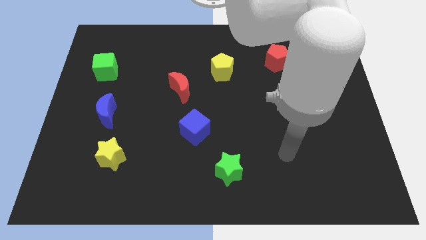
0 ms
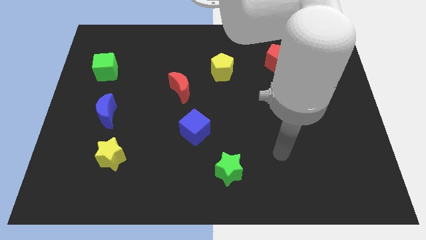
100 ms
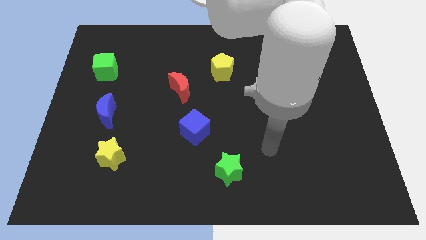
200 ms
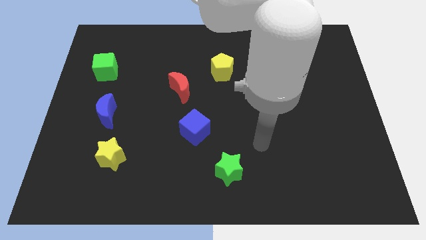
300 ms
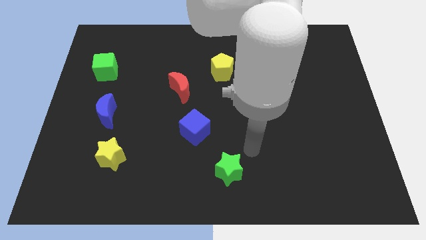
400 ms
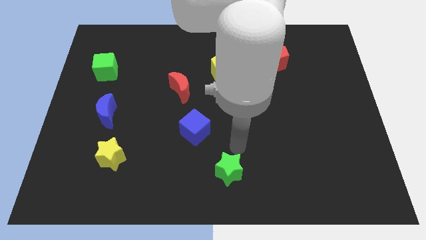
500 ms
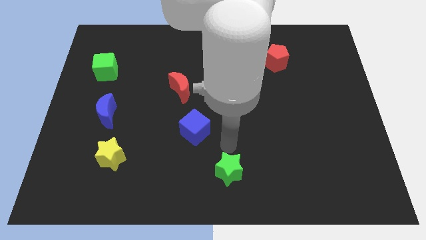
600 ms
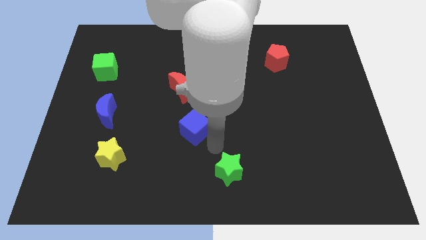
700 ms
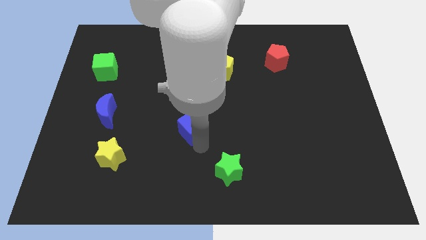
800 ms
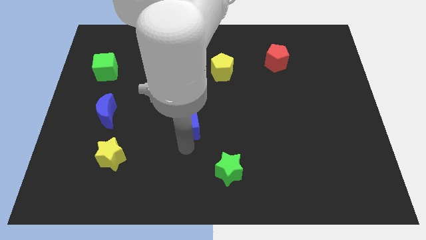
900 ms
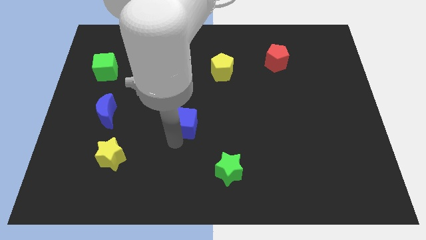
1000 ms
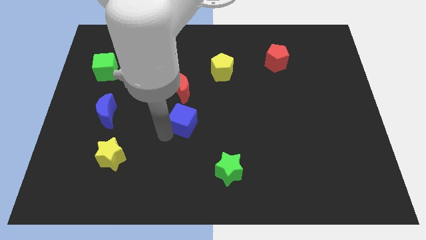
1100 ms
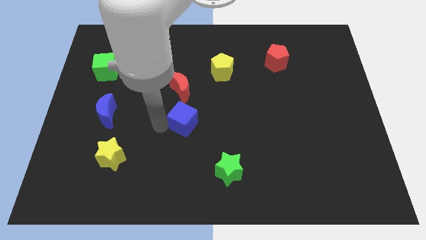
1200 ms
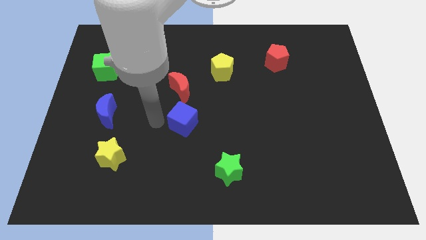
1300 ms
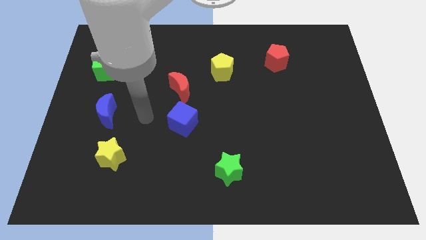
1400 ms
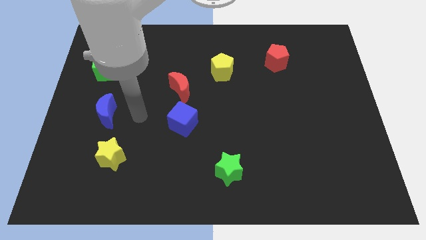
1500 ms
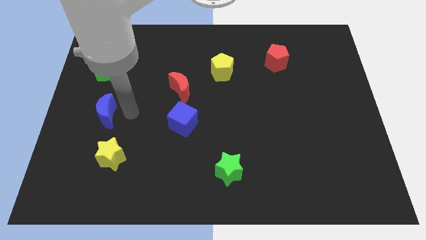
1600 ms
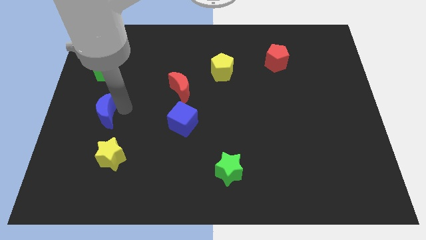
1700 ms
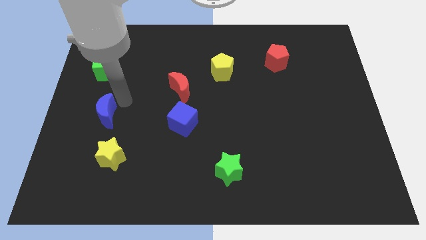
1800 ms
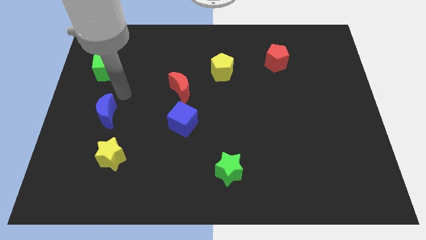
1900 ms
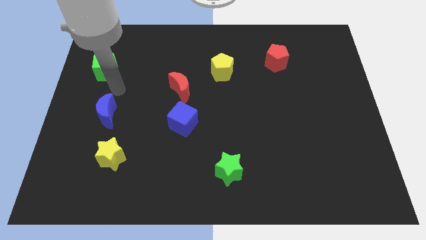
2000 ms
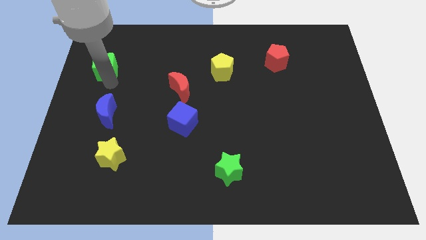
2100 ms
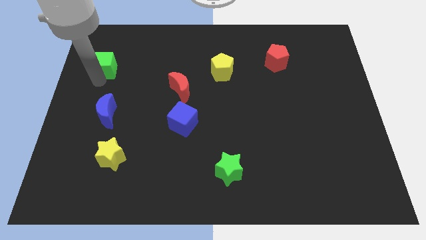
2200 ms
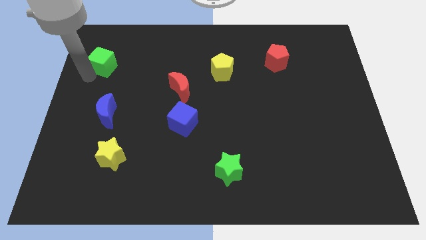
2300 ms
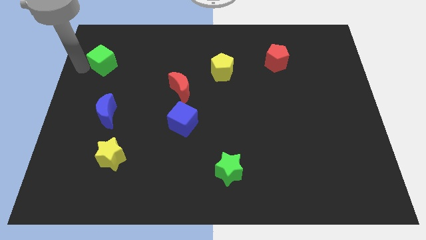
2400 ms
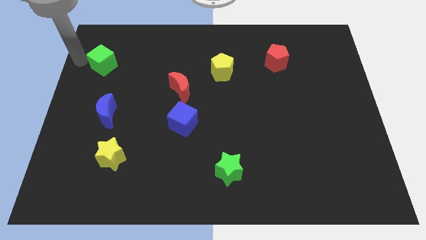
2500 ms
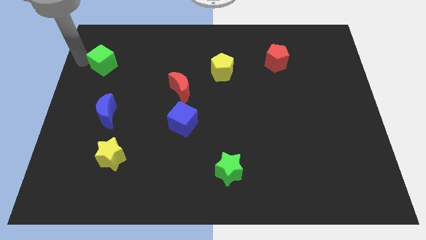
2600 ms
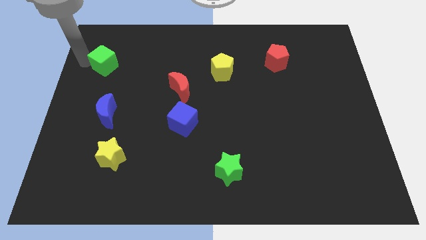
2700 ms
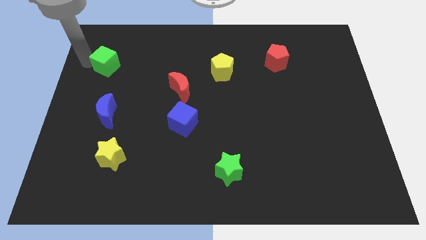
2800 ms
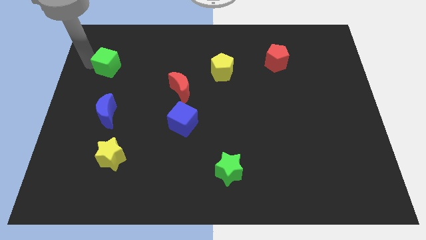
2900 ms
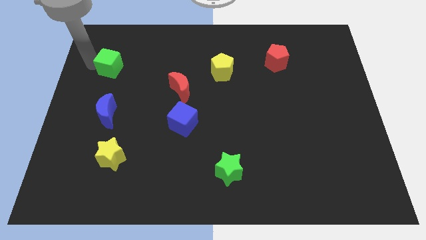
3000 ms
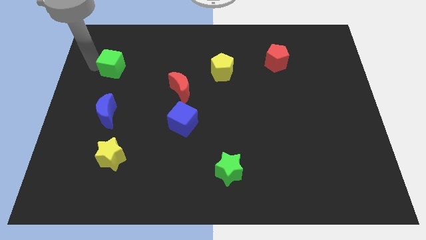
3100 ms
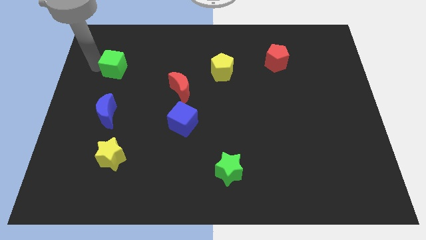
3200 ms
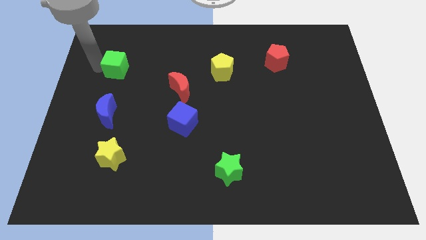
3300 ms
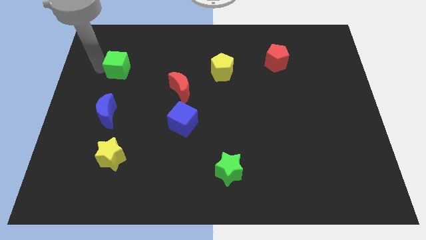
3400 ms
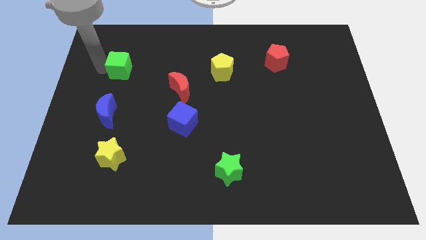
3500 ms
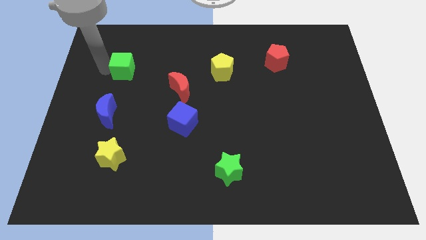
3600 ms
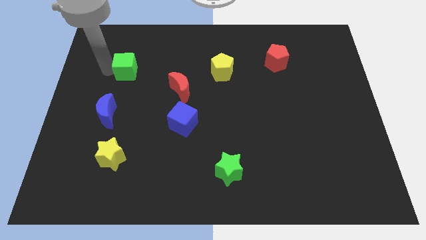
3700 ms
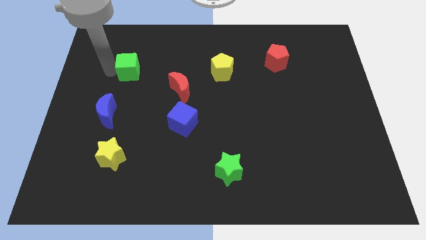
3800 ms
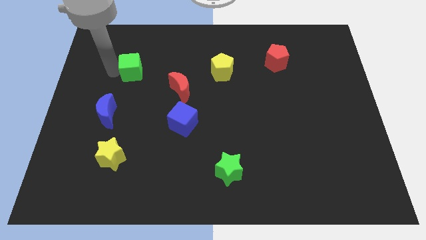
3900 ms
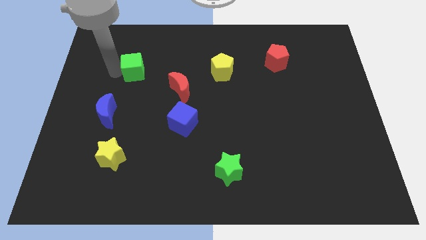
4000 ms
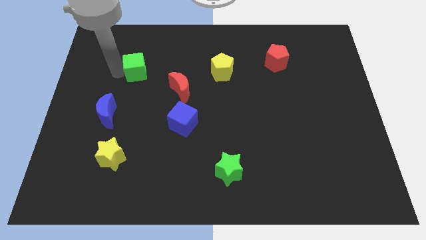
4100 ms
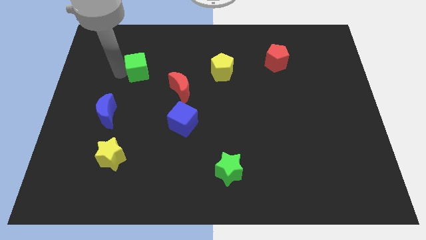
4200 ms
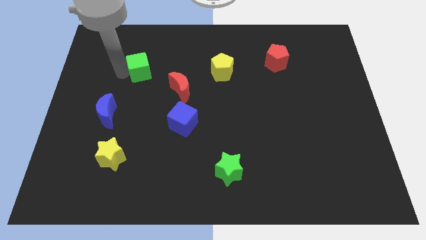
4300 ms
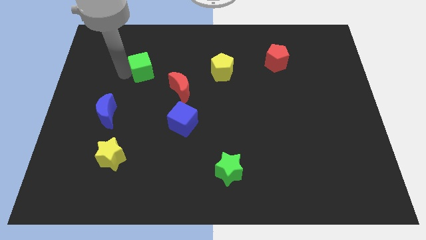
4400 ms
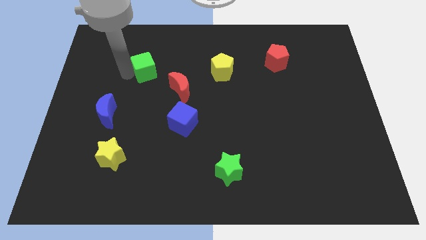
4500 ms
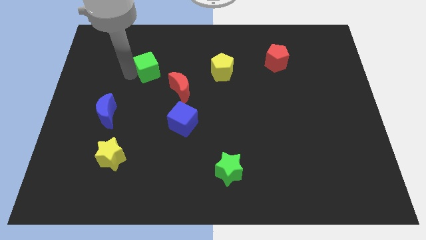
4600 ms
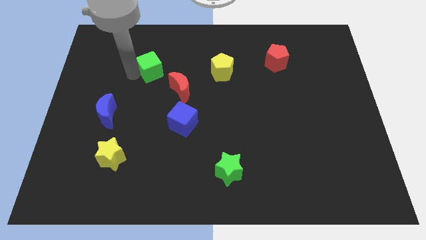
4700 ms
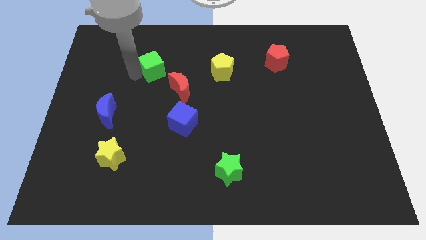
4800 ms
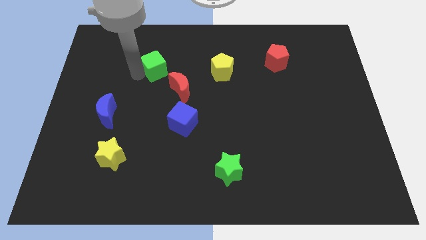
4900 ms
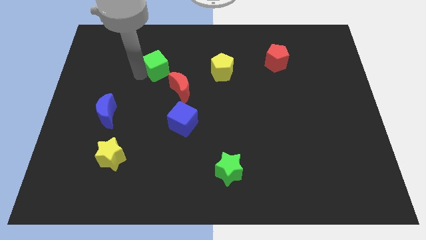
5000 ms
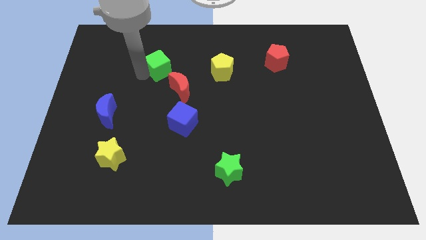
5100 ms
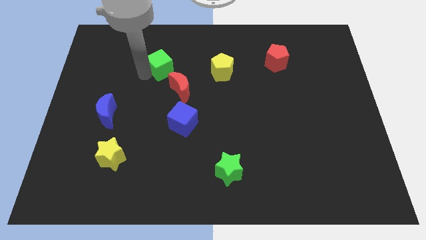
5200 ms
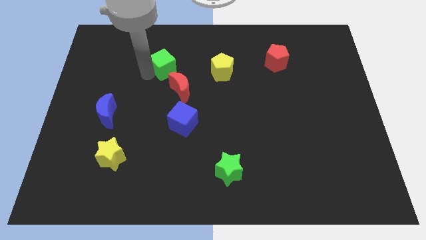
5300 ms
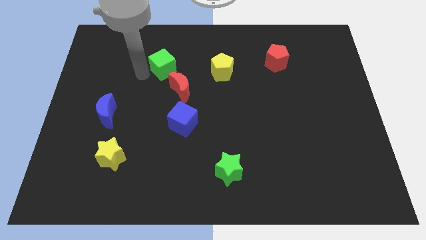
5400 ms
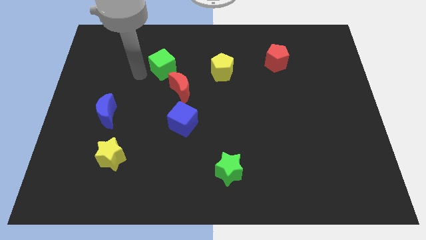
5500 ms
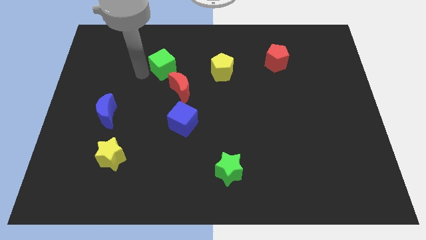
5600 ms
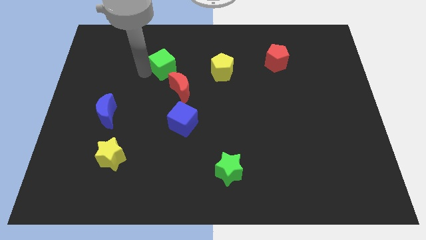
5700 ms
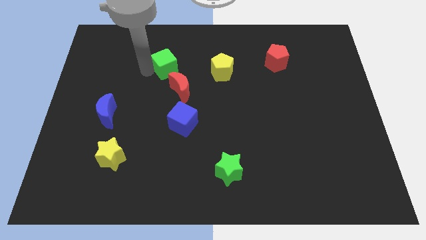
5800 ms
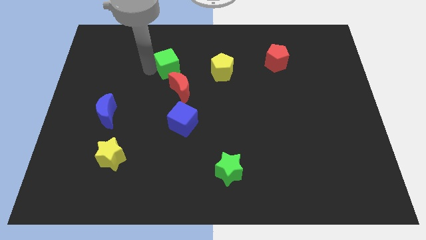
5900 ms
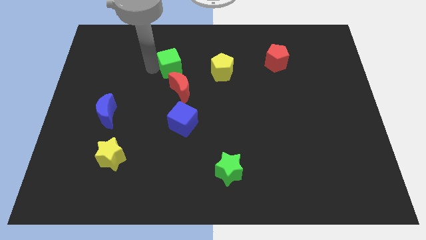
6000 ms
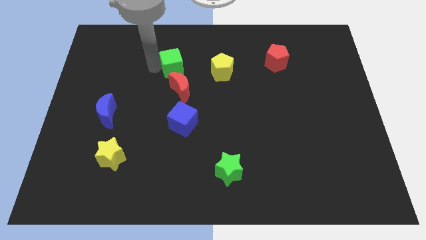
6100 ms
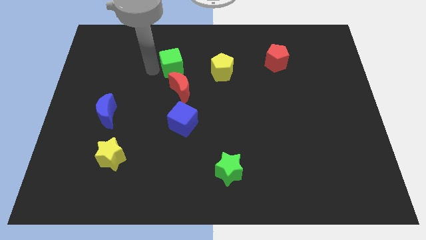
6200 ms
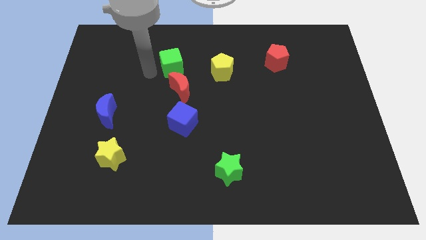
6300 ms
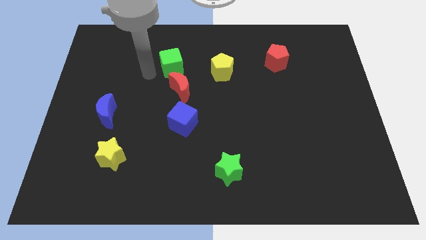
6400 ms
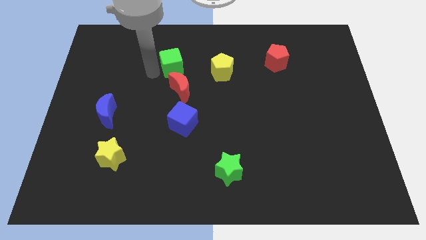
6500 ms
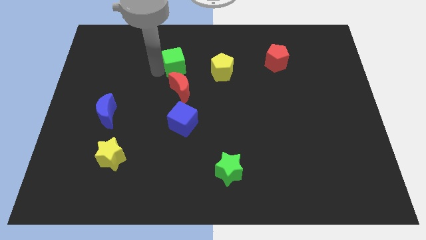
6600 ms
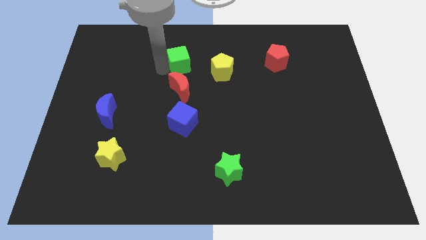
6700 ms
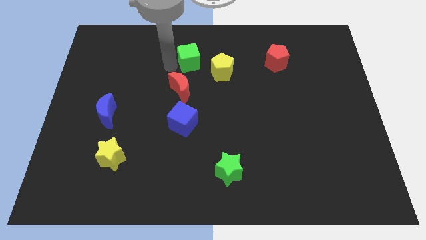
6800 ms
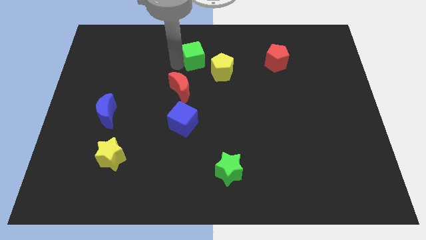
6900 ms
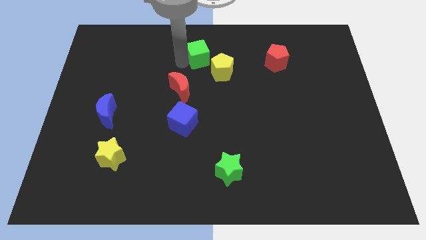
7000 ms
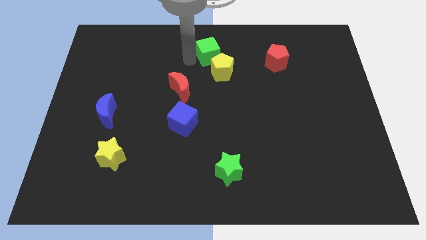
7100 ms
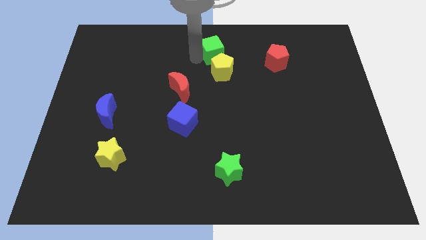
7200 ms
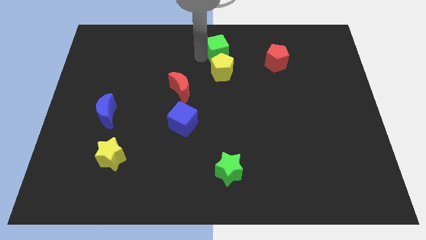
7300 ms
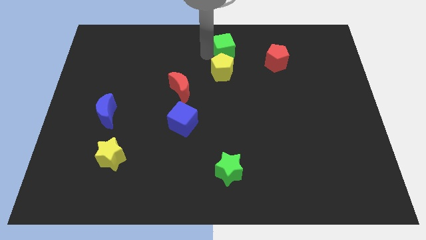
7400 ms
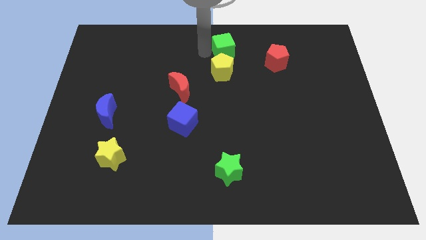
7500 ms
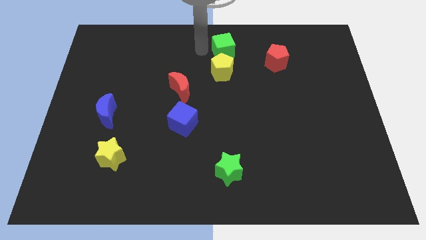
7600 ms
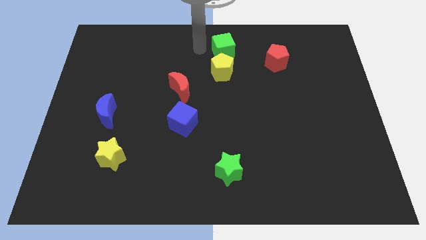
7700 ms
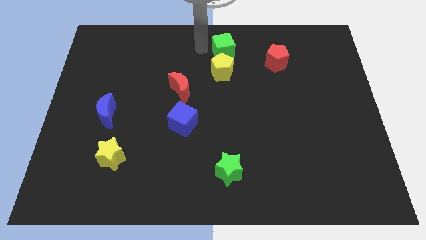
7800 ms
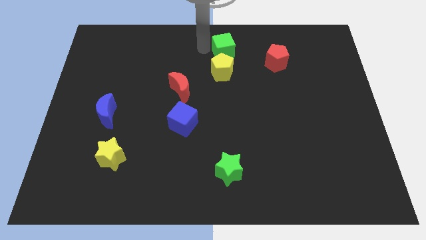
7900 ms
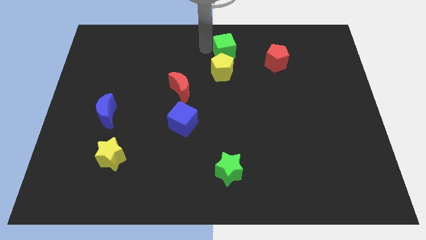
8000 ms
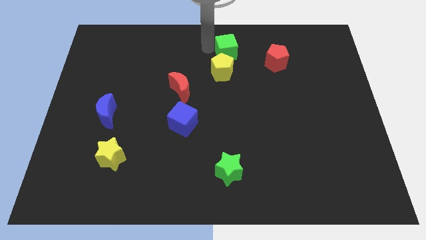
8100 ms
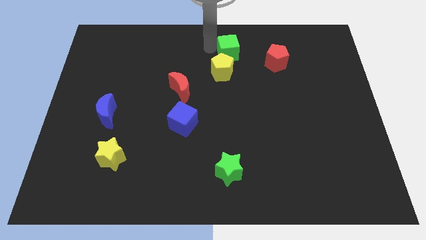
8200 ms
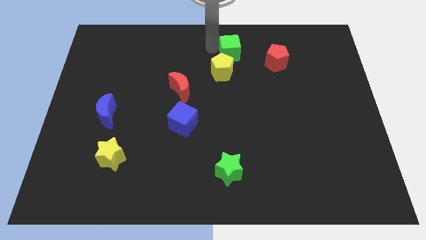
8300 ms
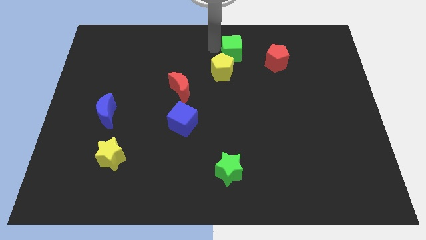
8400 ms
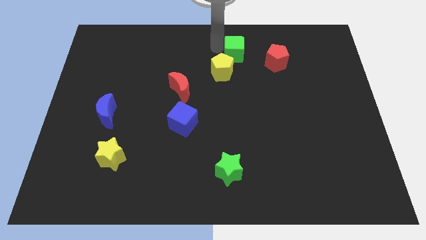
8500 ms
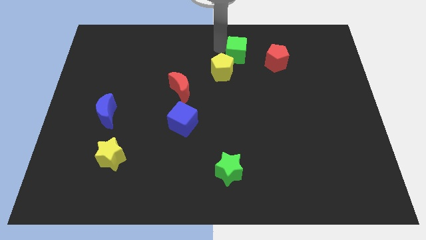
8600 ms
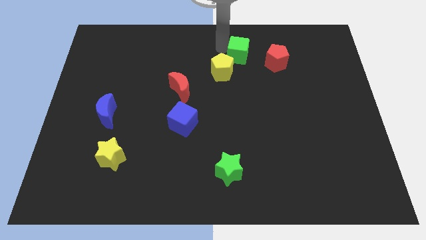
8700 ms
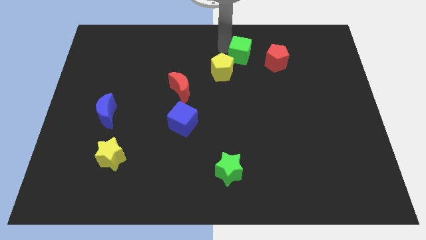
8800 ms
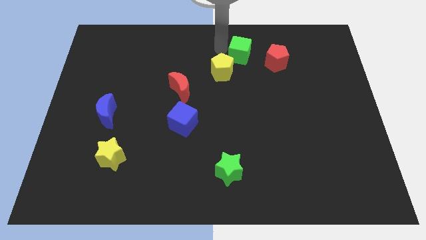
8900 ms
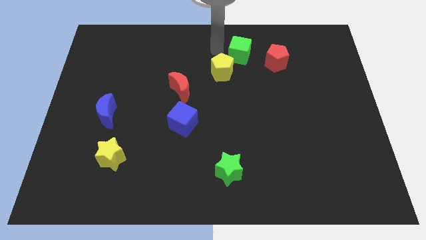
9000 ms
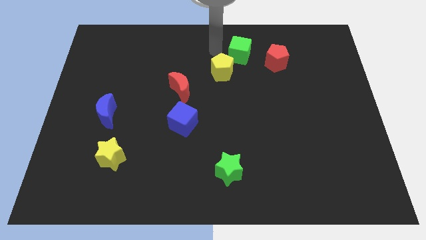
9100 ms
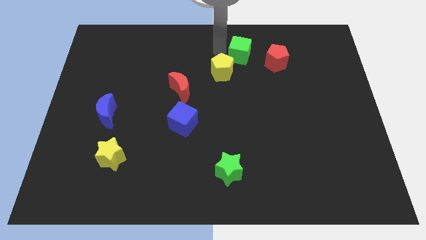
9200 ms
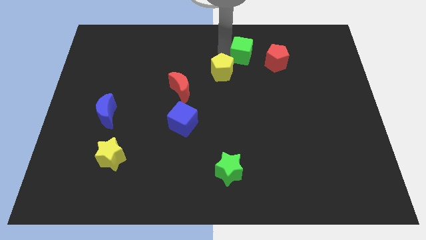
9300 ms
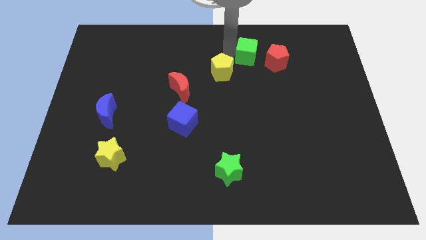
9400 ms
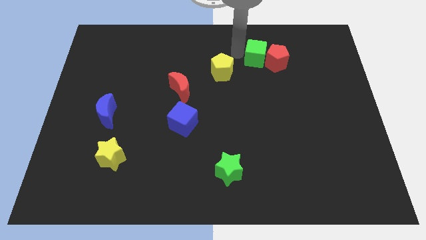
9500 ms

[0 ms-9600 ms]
move the green cube close to the red pentagon
